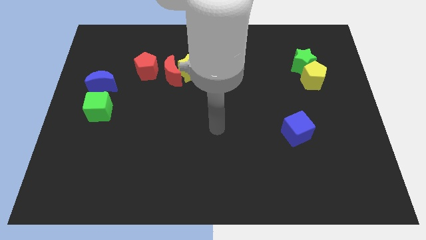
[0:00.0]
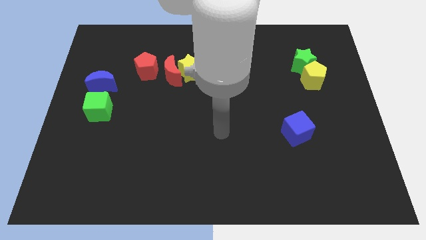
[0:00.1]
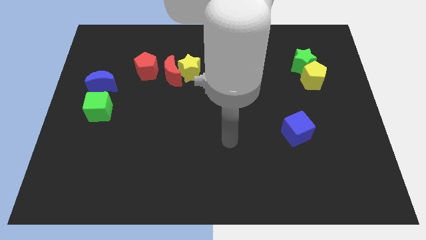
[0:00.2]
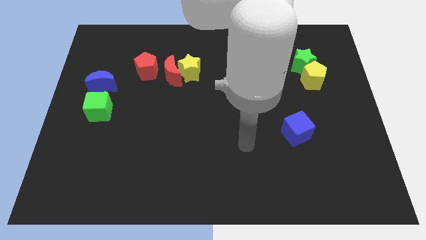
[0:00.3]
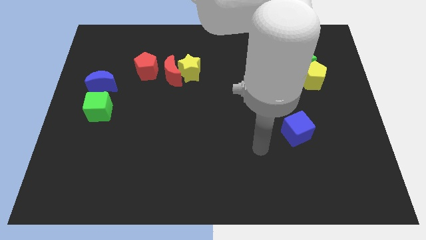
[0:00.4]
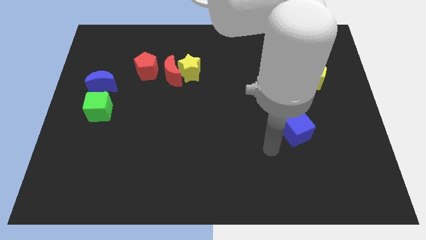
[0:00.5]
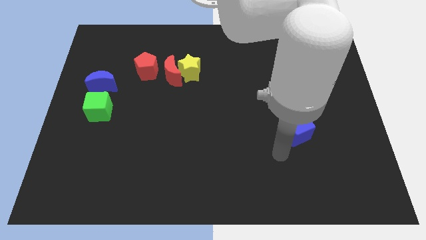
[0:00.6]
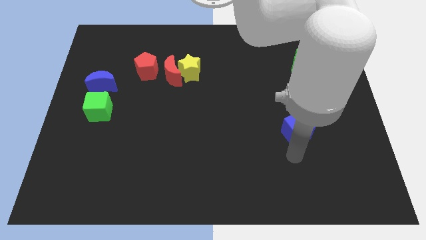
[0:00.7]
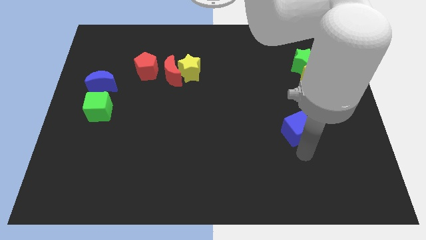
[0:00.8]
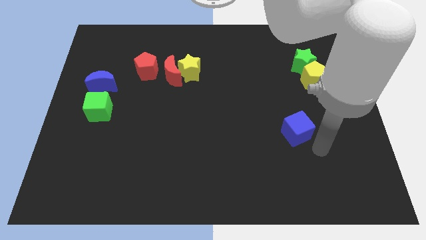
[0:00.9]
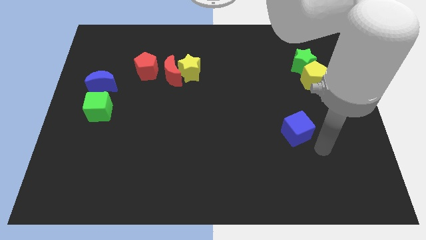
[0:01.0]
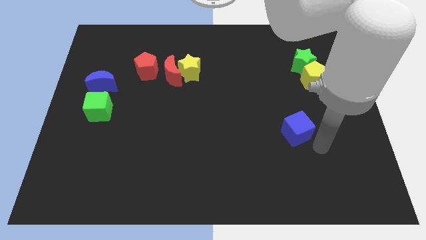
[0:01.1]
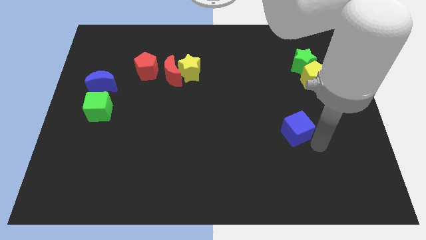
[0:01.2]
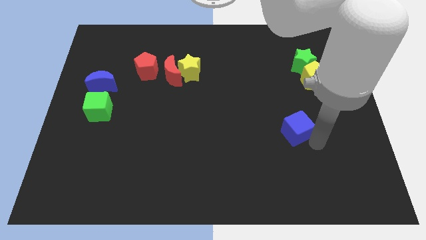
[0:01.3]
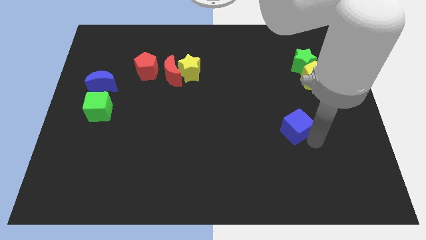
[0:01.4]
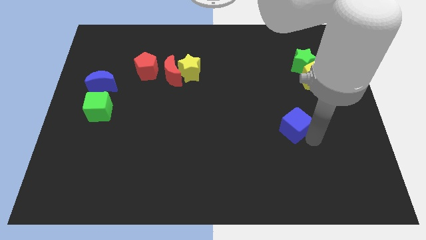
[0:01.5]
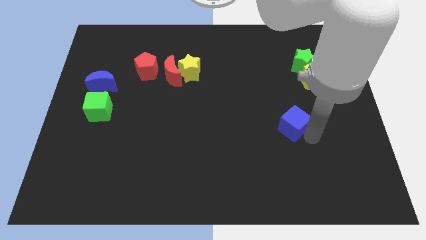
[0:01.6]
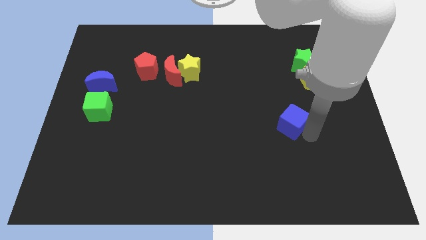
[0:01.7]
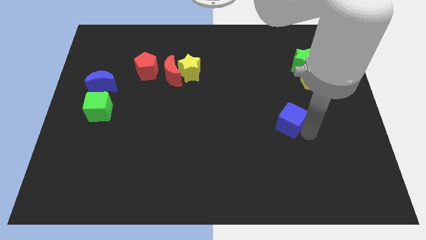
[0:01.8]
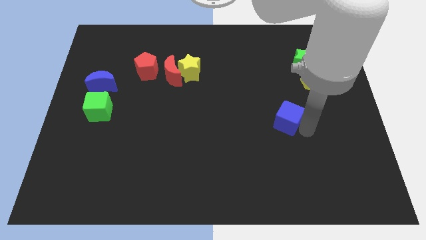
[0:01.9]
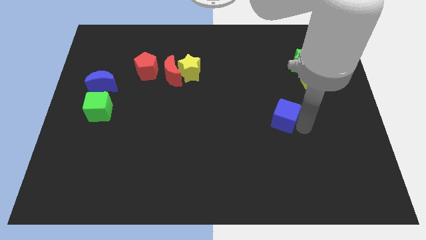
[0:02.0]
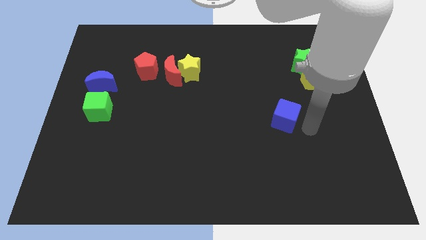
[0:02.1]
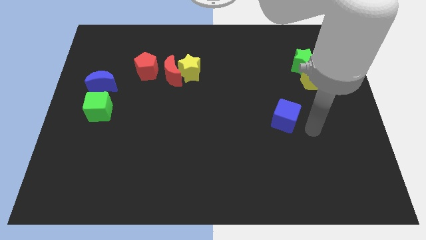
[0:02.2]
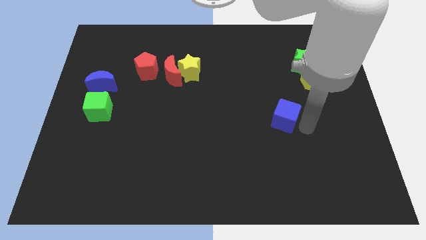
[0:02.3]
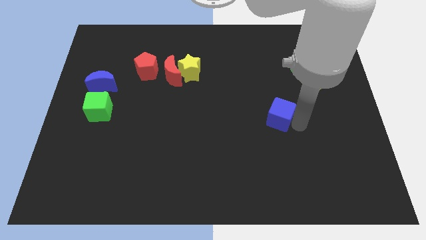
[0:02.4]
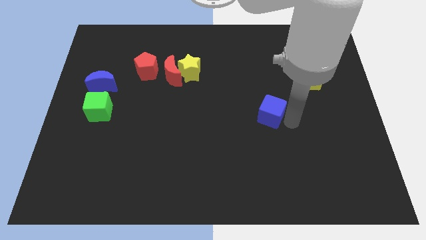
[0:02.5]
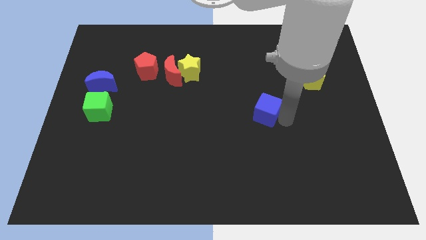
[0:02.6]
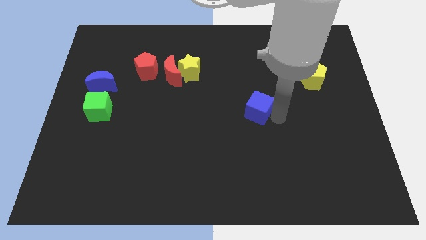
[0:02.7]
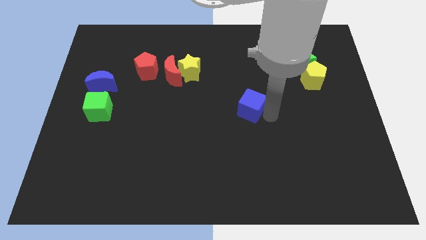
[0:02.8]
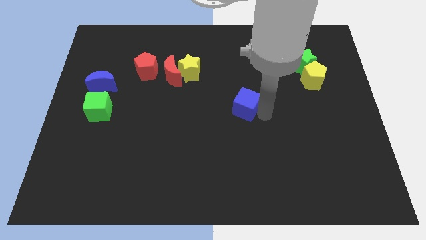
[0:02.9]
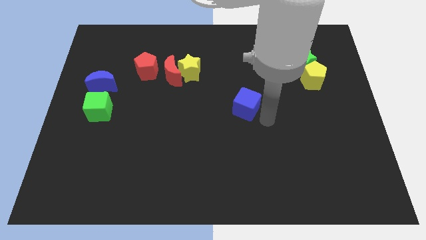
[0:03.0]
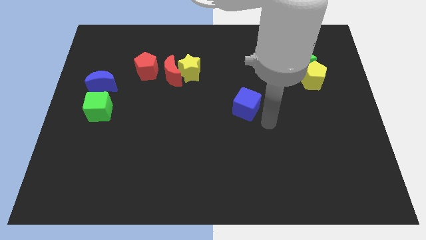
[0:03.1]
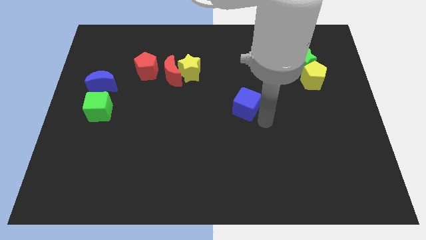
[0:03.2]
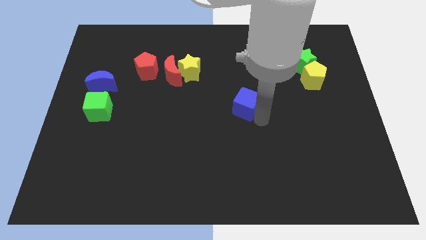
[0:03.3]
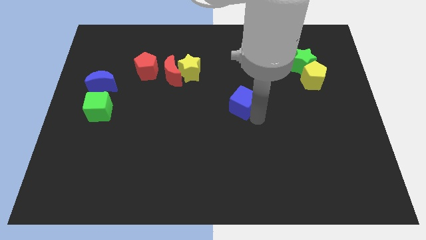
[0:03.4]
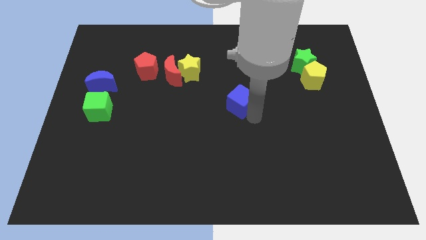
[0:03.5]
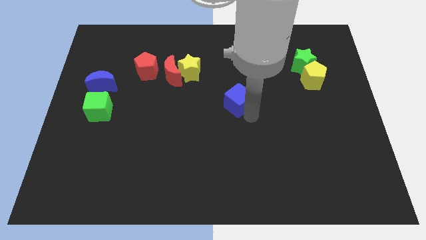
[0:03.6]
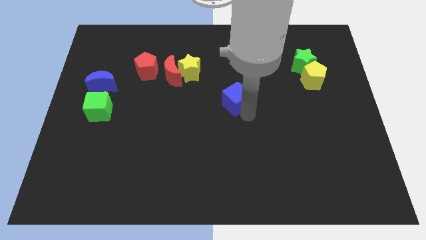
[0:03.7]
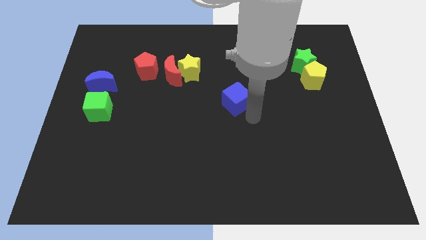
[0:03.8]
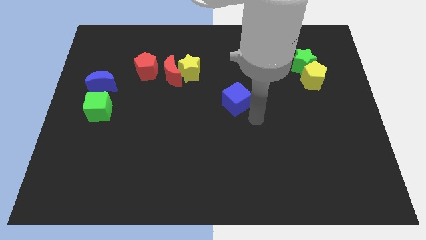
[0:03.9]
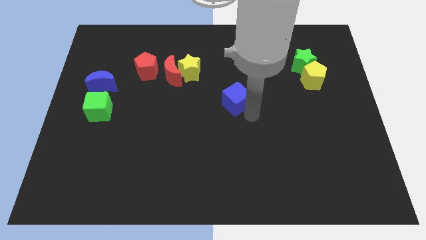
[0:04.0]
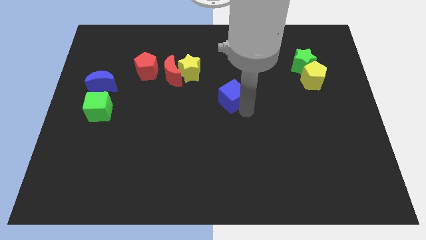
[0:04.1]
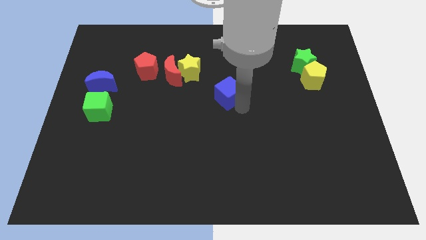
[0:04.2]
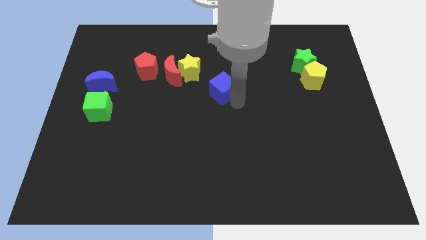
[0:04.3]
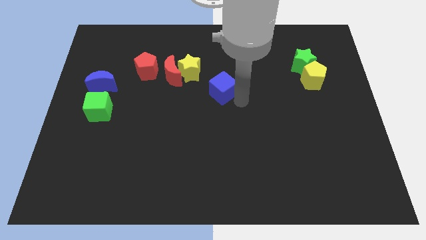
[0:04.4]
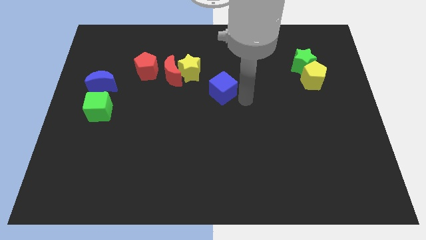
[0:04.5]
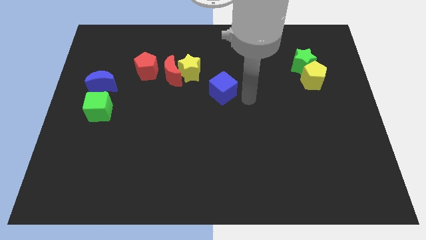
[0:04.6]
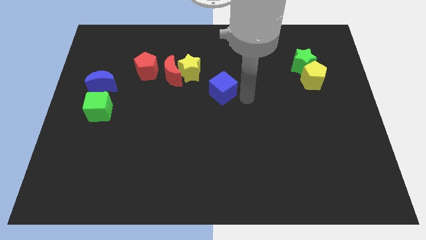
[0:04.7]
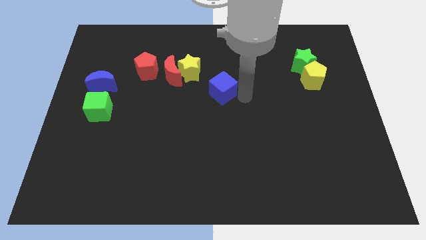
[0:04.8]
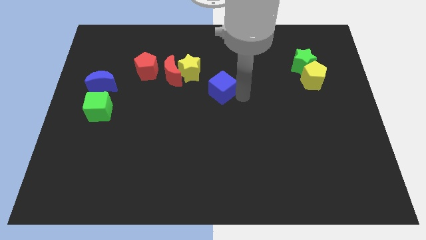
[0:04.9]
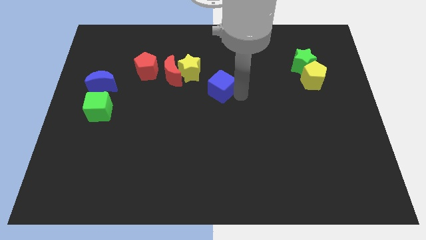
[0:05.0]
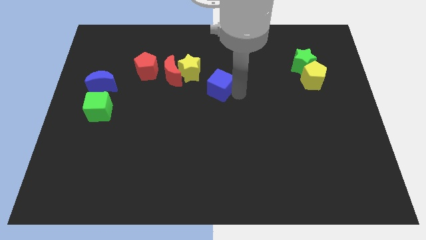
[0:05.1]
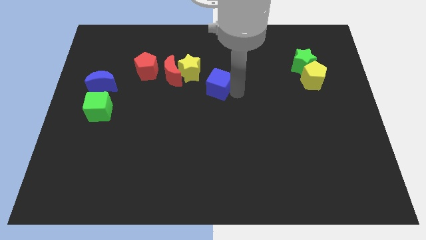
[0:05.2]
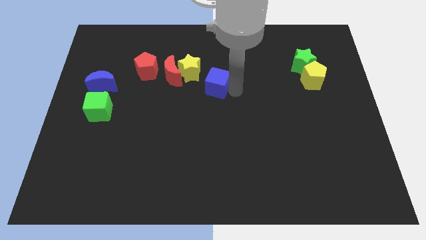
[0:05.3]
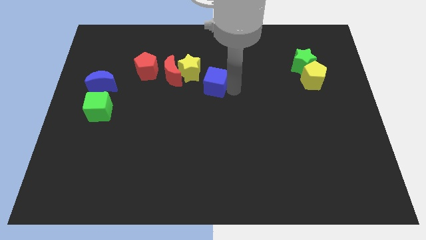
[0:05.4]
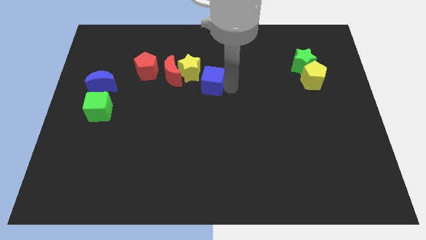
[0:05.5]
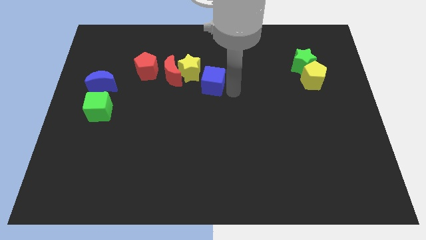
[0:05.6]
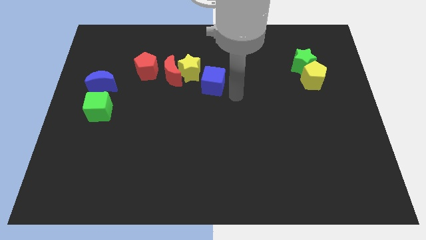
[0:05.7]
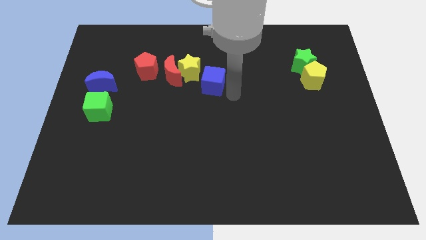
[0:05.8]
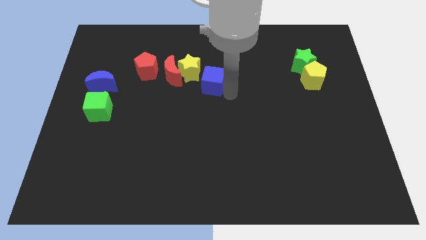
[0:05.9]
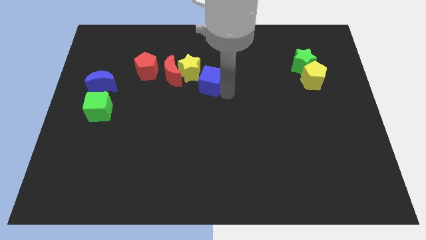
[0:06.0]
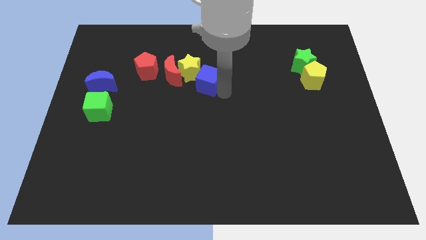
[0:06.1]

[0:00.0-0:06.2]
push the blue cube to the yellow star

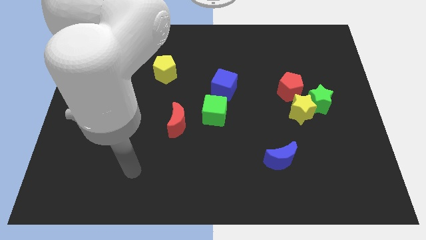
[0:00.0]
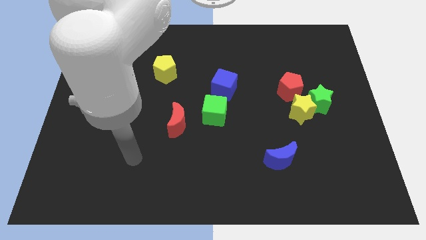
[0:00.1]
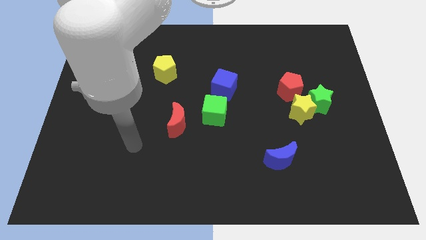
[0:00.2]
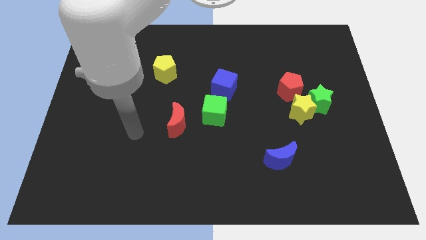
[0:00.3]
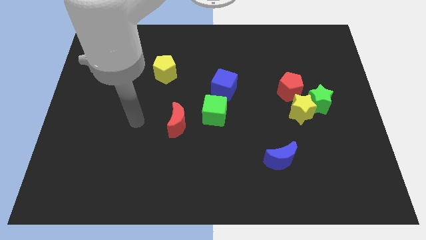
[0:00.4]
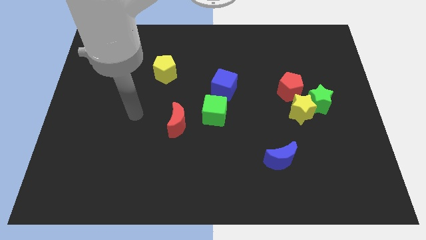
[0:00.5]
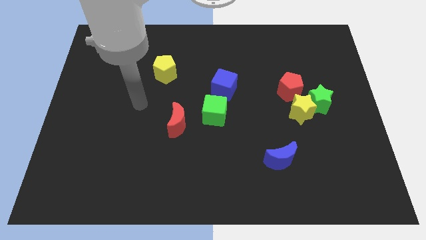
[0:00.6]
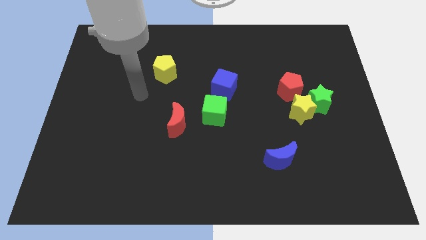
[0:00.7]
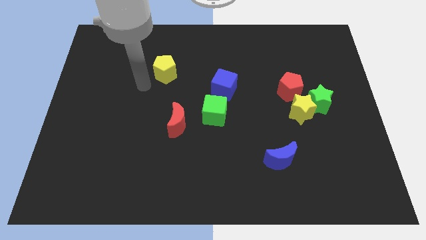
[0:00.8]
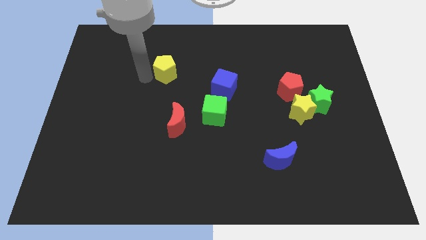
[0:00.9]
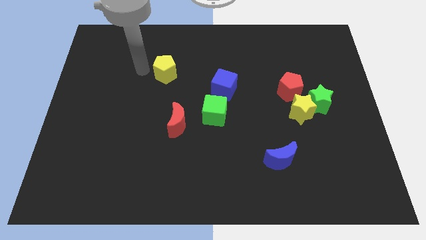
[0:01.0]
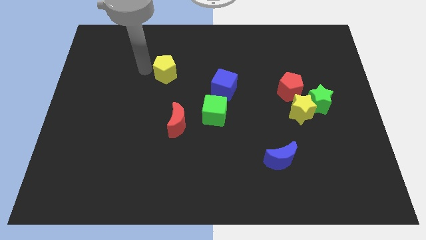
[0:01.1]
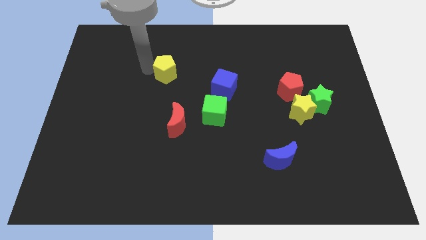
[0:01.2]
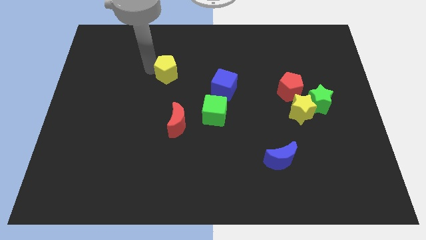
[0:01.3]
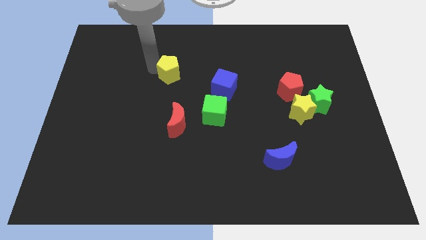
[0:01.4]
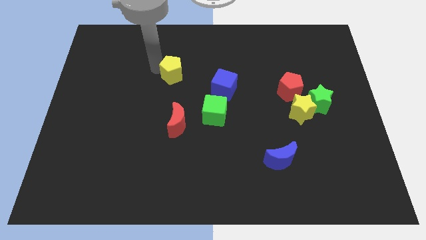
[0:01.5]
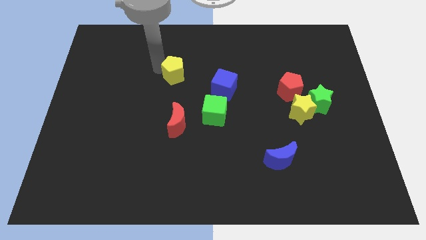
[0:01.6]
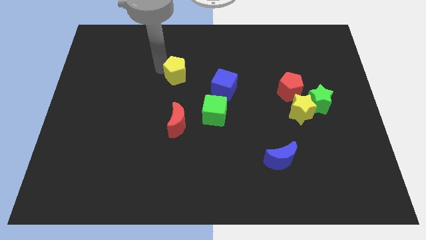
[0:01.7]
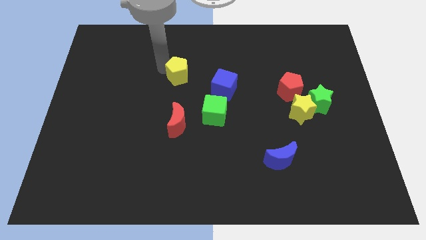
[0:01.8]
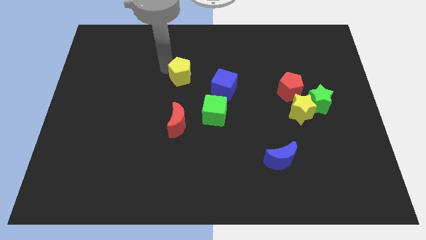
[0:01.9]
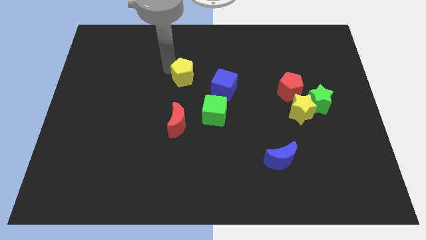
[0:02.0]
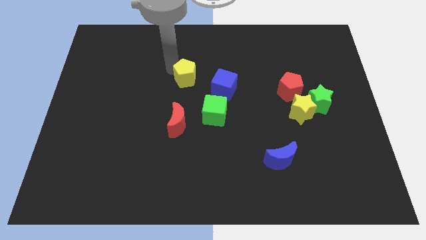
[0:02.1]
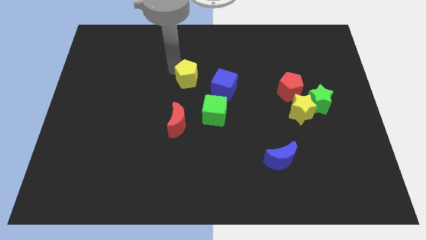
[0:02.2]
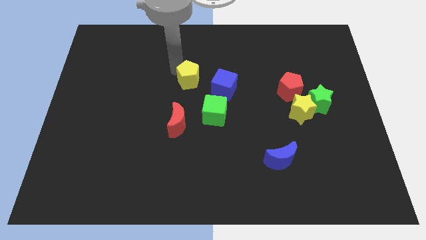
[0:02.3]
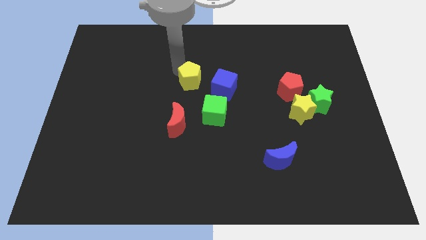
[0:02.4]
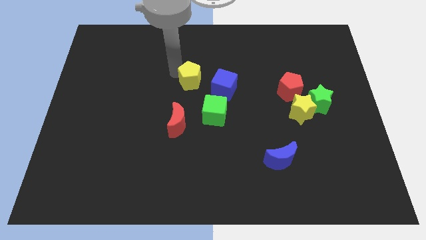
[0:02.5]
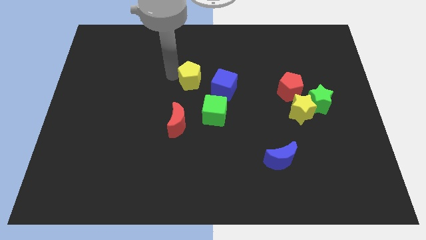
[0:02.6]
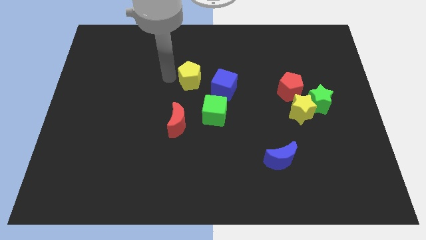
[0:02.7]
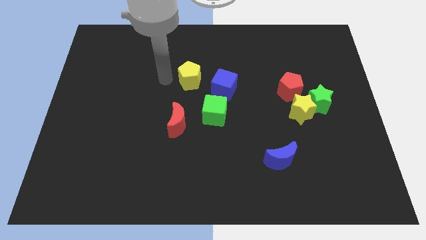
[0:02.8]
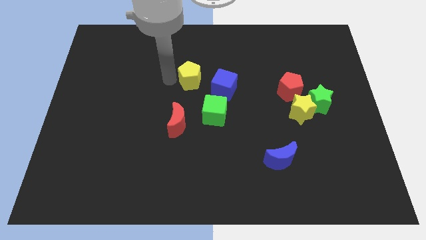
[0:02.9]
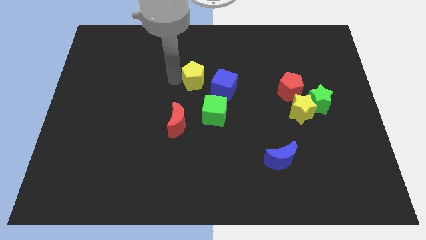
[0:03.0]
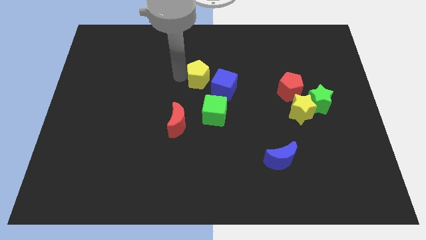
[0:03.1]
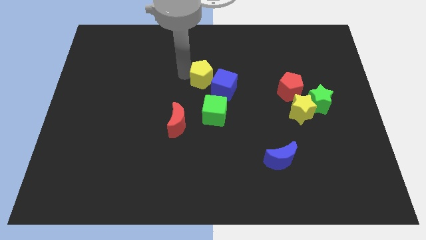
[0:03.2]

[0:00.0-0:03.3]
move the yellow pentagon close to the blue cube
